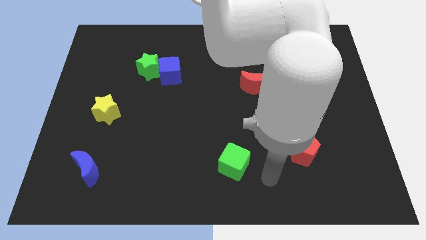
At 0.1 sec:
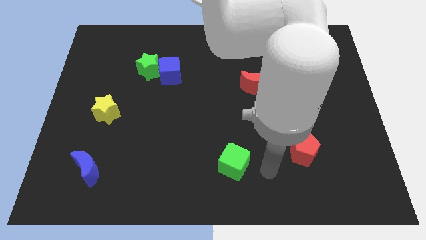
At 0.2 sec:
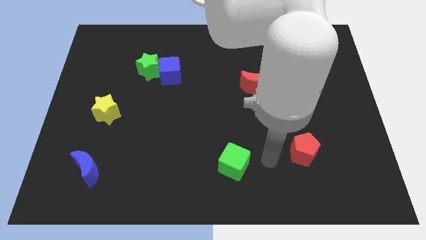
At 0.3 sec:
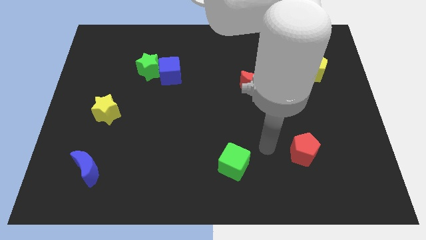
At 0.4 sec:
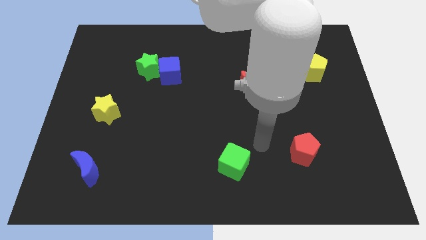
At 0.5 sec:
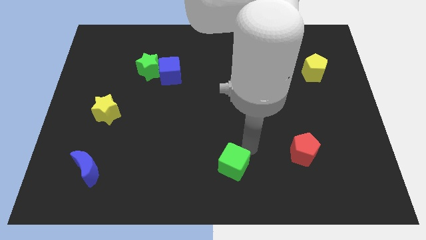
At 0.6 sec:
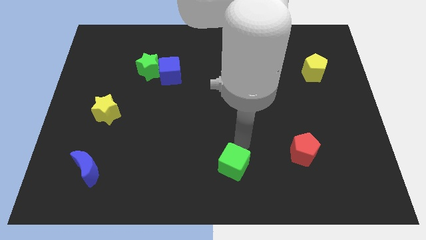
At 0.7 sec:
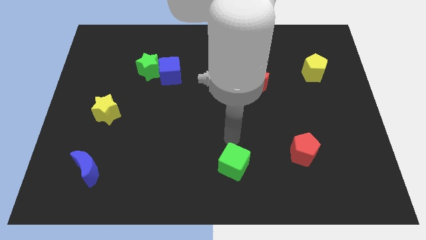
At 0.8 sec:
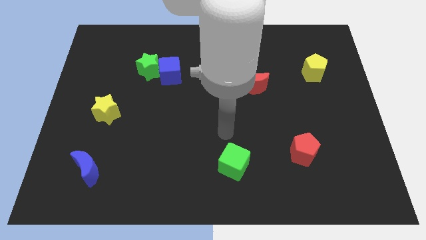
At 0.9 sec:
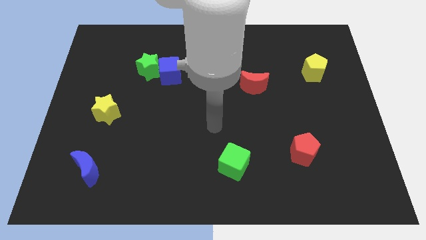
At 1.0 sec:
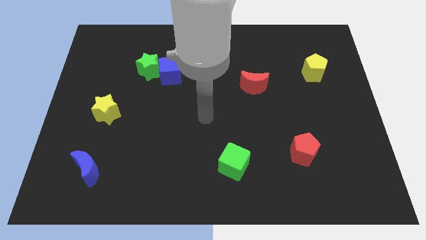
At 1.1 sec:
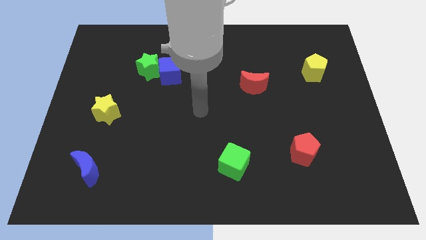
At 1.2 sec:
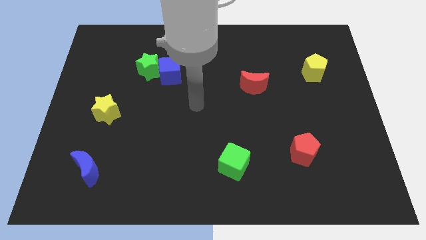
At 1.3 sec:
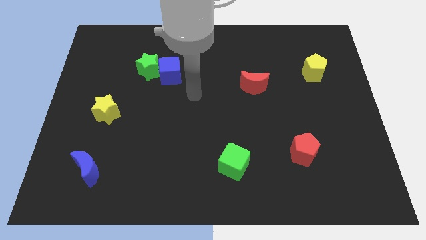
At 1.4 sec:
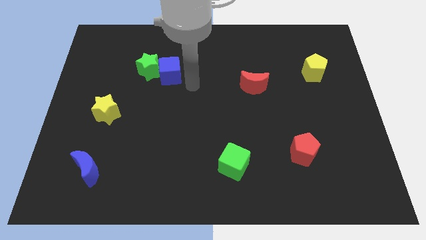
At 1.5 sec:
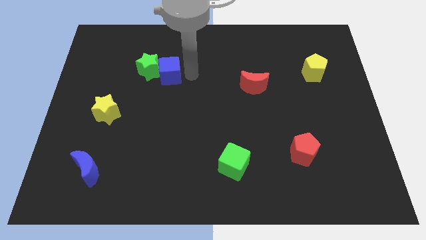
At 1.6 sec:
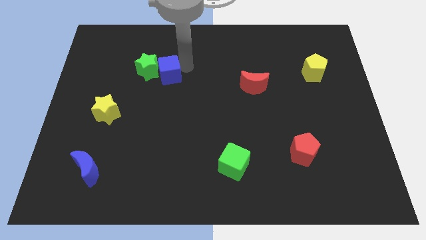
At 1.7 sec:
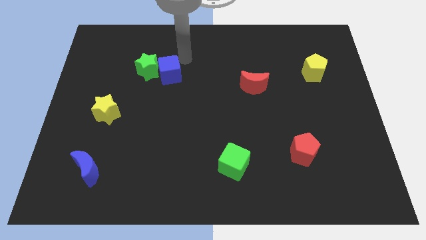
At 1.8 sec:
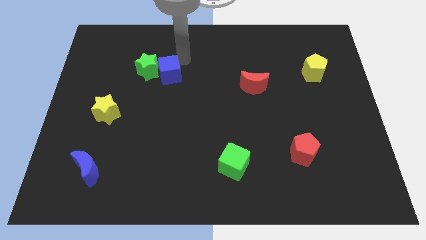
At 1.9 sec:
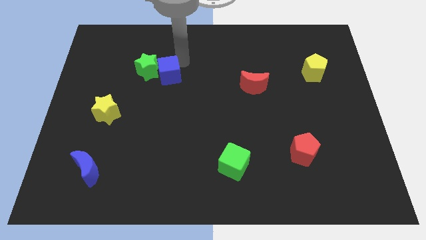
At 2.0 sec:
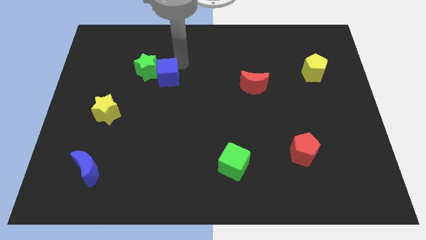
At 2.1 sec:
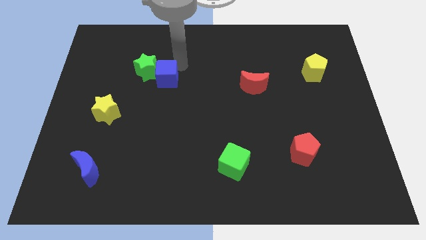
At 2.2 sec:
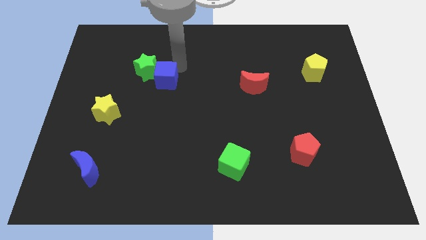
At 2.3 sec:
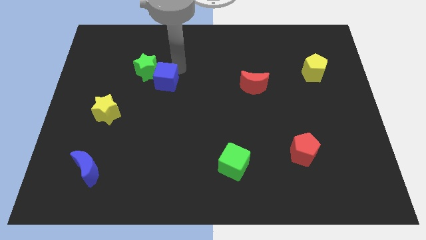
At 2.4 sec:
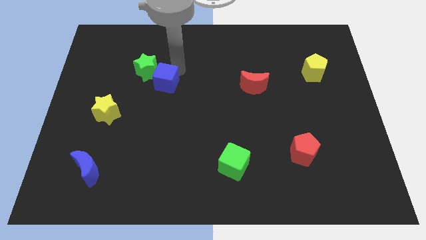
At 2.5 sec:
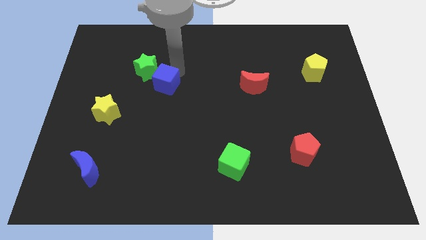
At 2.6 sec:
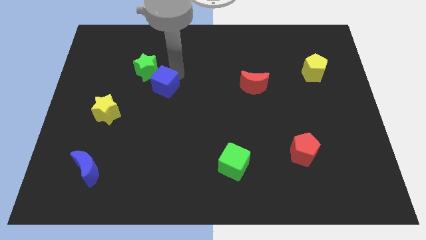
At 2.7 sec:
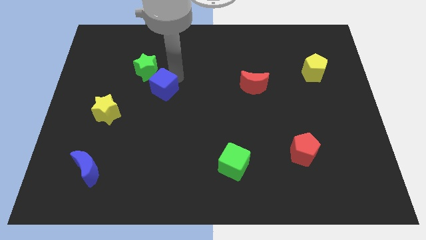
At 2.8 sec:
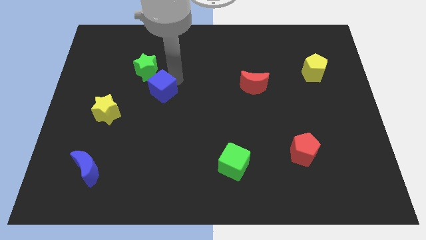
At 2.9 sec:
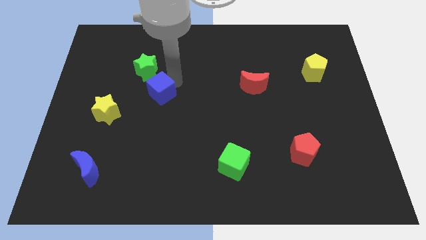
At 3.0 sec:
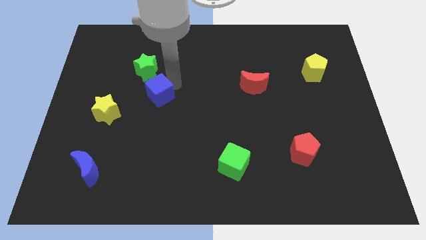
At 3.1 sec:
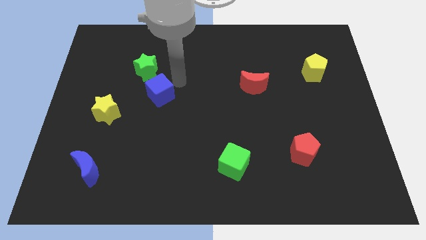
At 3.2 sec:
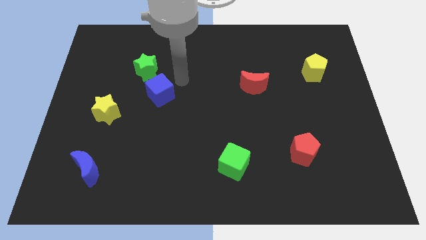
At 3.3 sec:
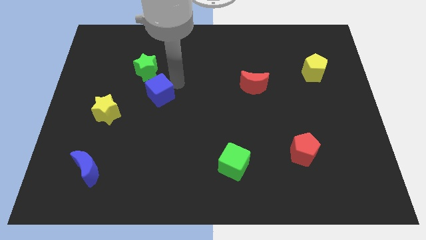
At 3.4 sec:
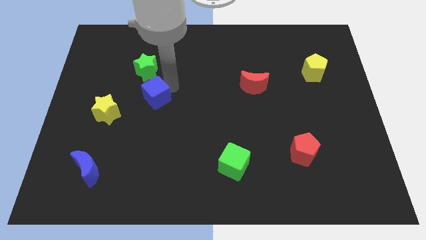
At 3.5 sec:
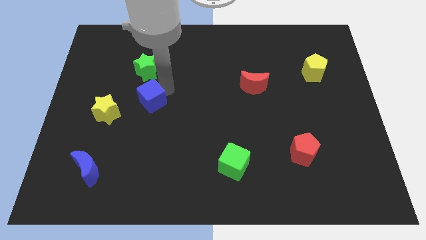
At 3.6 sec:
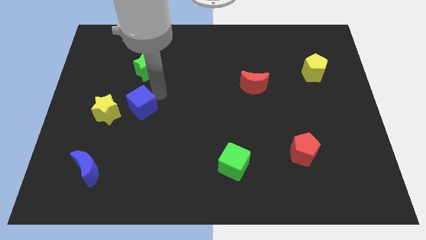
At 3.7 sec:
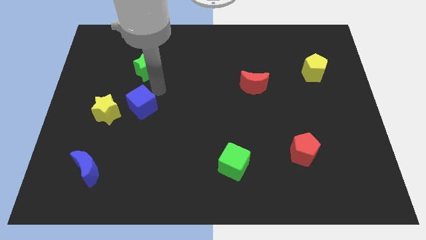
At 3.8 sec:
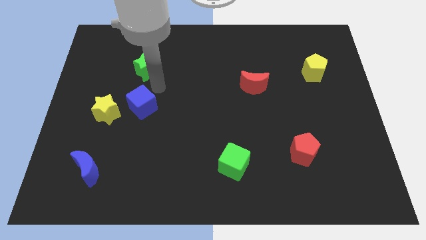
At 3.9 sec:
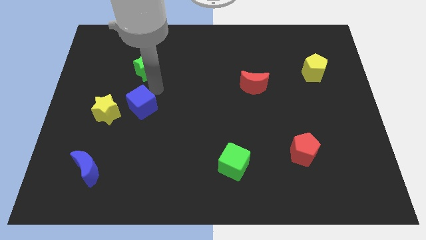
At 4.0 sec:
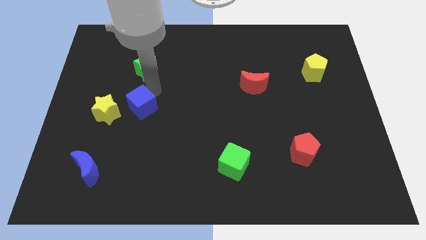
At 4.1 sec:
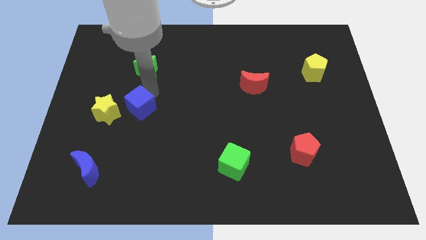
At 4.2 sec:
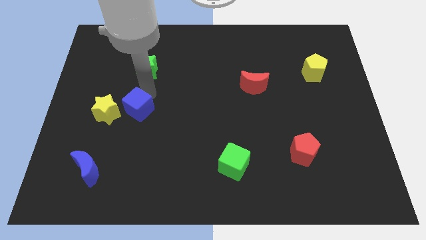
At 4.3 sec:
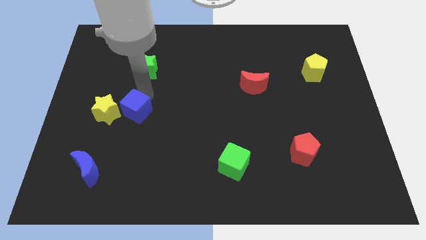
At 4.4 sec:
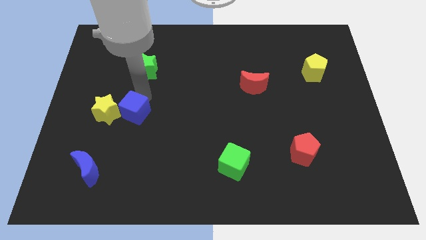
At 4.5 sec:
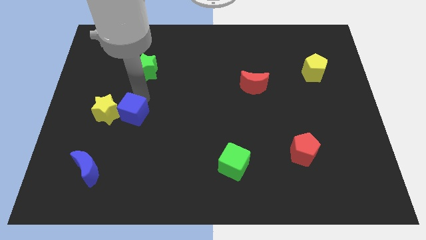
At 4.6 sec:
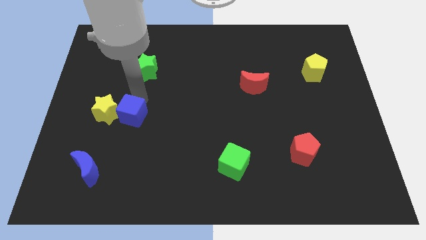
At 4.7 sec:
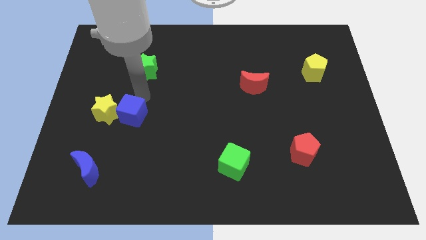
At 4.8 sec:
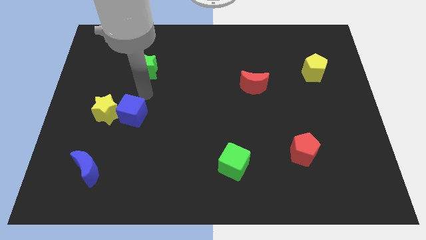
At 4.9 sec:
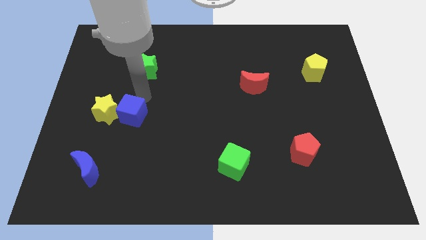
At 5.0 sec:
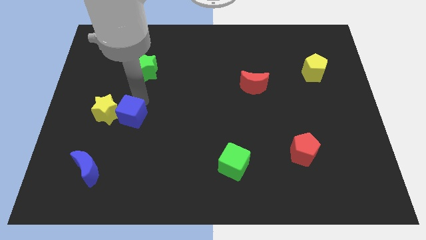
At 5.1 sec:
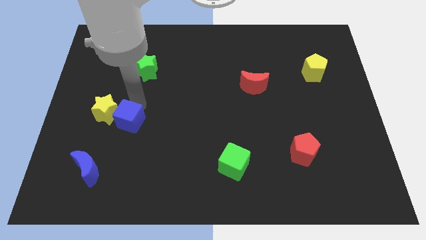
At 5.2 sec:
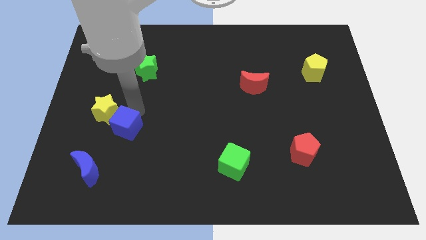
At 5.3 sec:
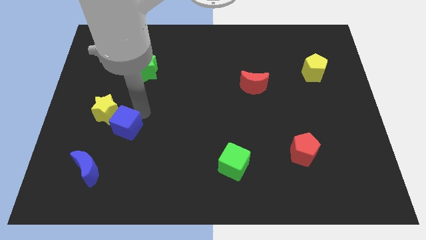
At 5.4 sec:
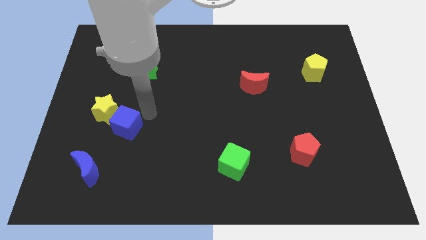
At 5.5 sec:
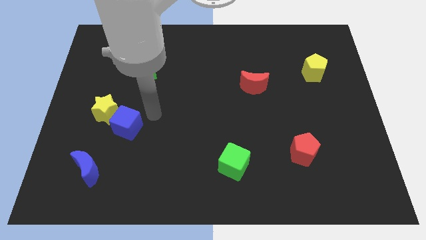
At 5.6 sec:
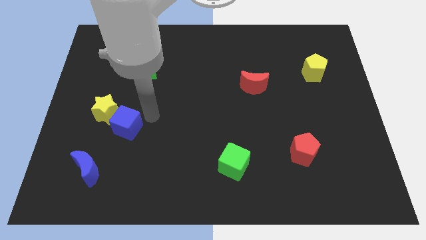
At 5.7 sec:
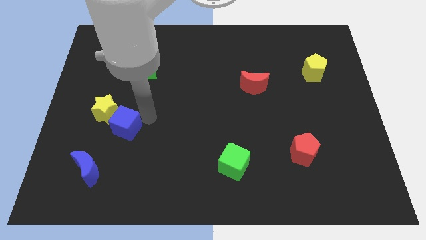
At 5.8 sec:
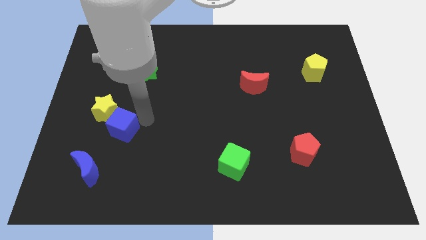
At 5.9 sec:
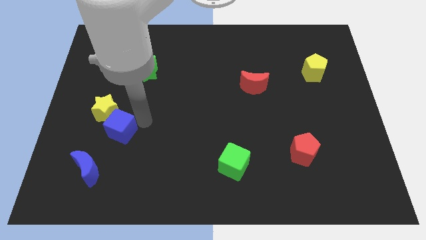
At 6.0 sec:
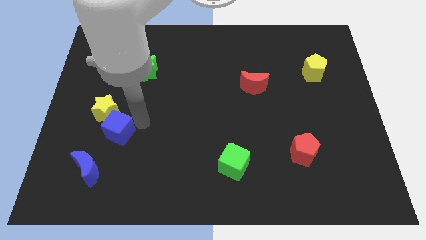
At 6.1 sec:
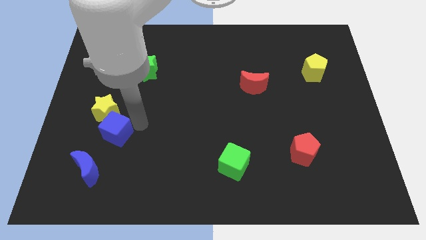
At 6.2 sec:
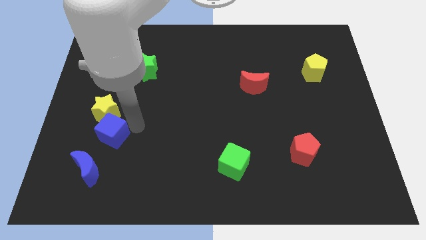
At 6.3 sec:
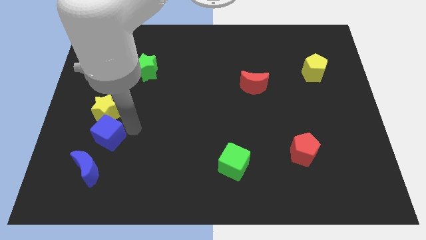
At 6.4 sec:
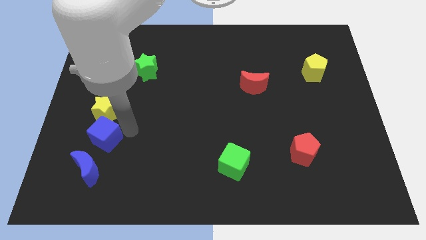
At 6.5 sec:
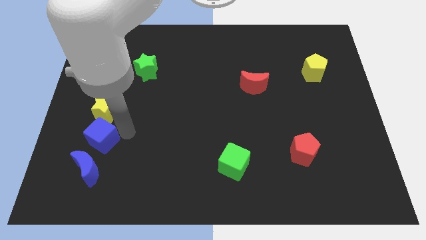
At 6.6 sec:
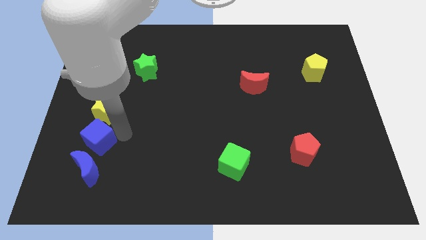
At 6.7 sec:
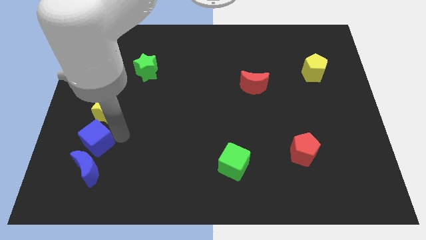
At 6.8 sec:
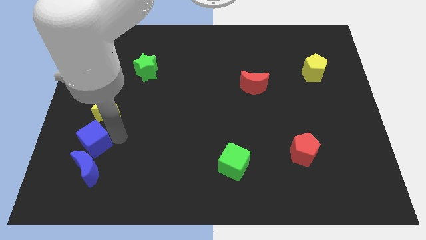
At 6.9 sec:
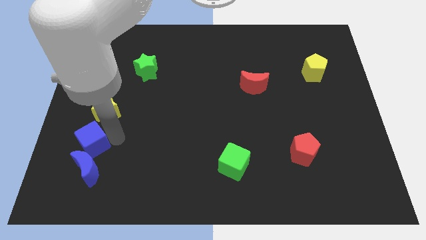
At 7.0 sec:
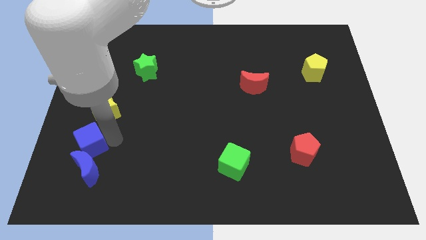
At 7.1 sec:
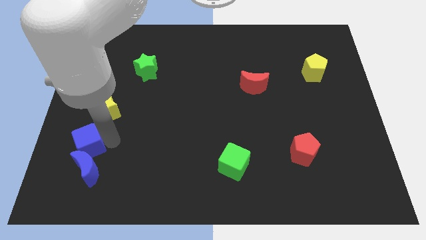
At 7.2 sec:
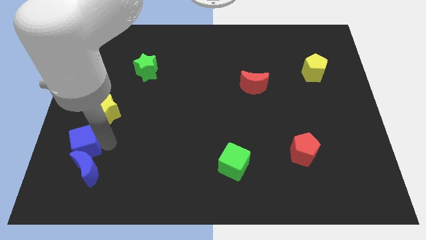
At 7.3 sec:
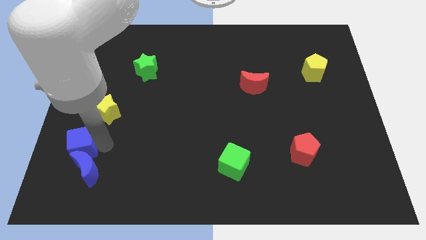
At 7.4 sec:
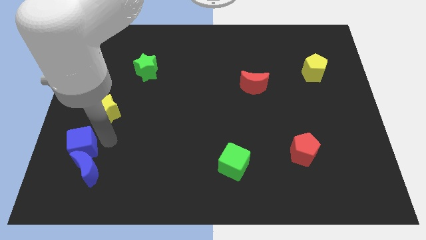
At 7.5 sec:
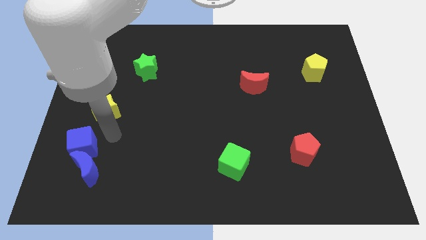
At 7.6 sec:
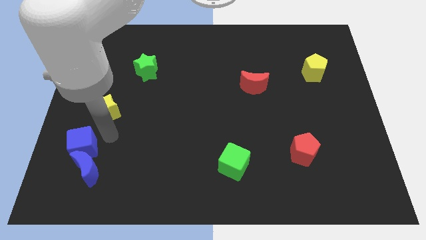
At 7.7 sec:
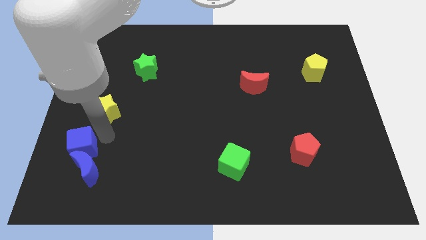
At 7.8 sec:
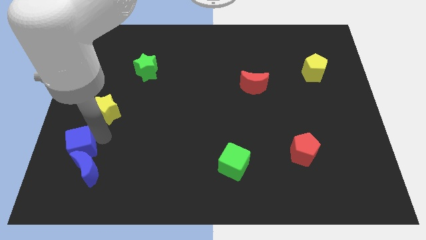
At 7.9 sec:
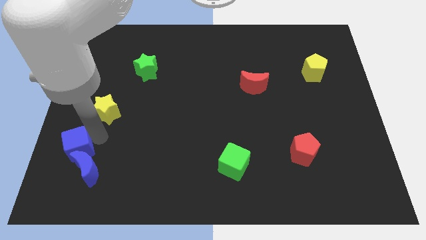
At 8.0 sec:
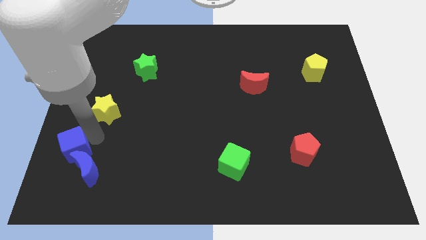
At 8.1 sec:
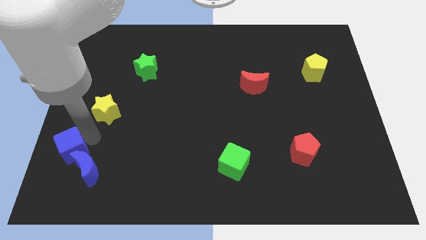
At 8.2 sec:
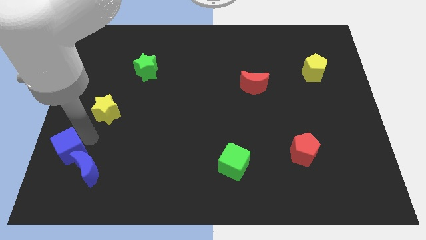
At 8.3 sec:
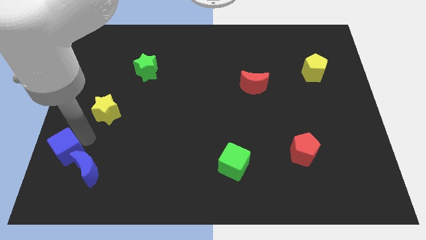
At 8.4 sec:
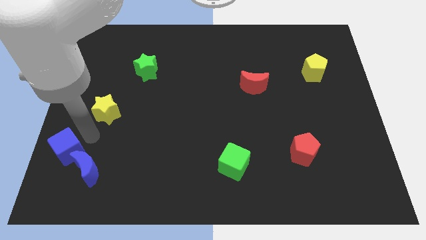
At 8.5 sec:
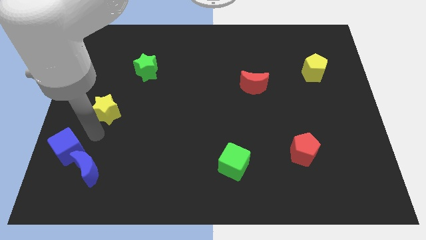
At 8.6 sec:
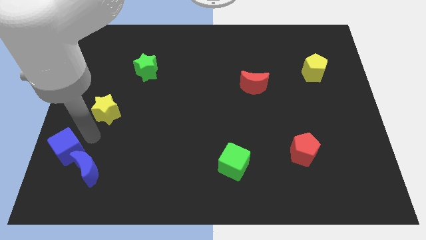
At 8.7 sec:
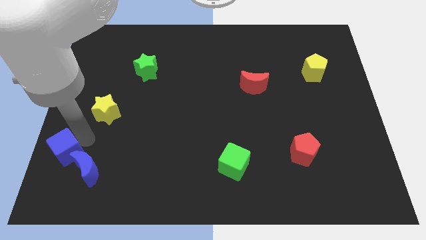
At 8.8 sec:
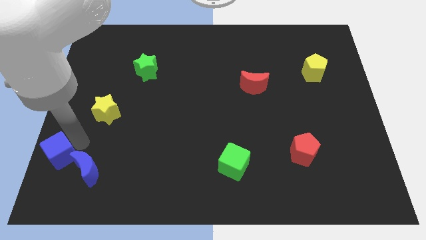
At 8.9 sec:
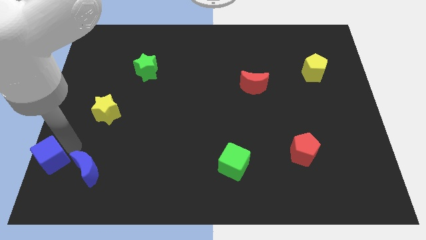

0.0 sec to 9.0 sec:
put the blue cube to the bottom left corner
